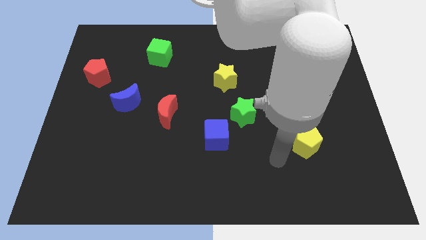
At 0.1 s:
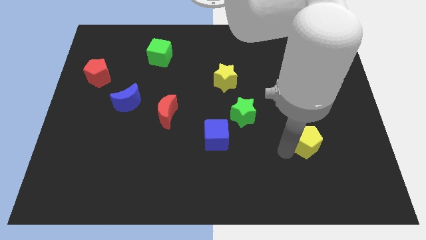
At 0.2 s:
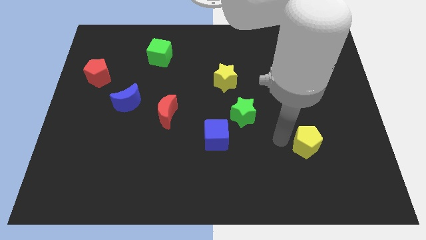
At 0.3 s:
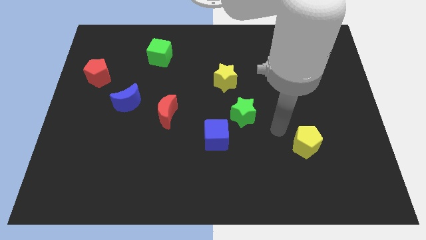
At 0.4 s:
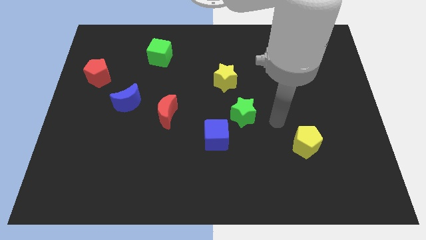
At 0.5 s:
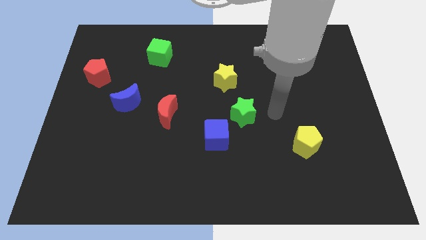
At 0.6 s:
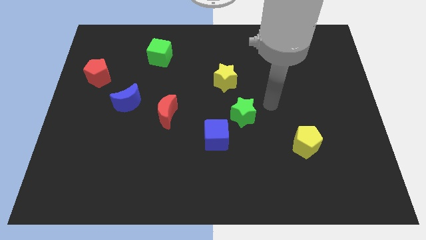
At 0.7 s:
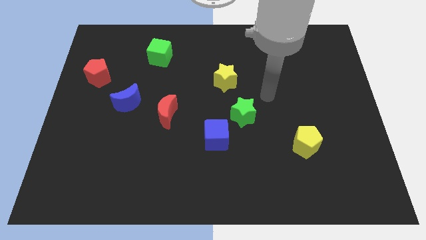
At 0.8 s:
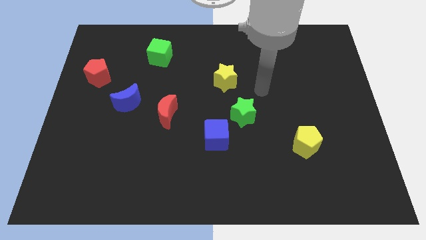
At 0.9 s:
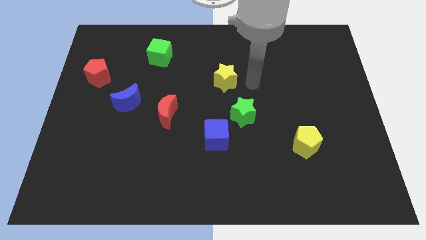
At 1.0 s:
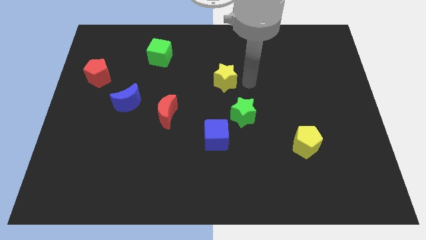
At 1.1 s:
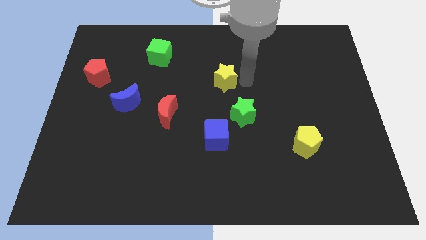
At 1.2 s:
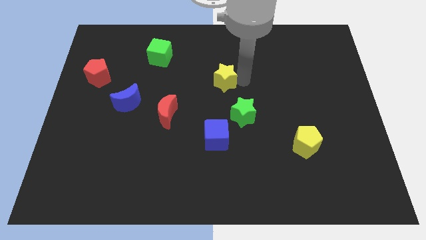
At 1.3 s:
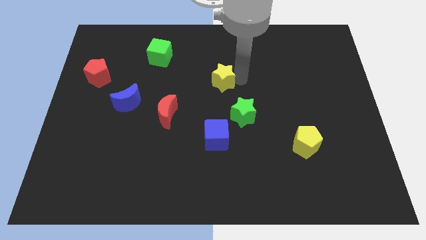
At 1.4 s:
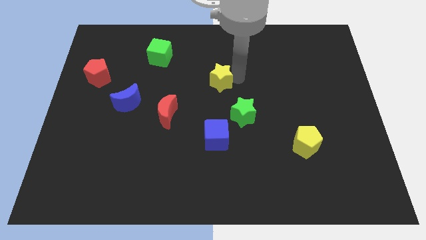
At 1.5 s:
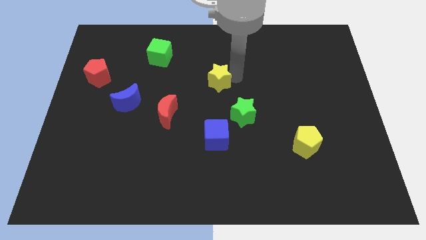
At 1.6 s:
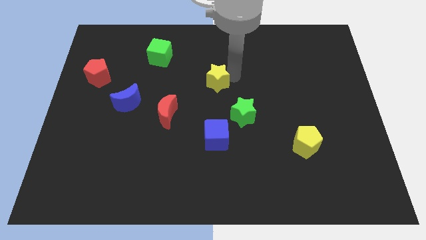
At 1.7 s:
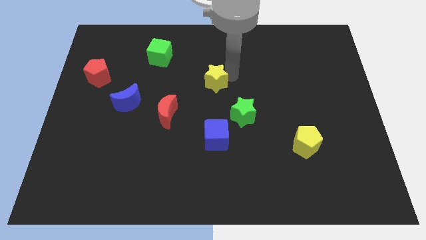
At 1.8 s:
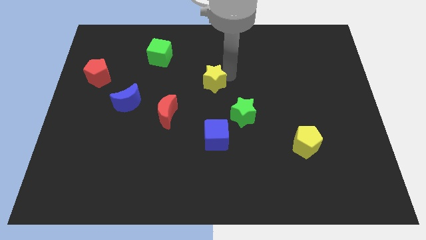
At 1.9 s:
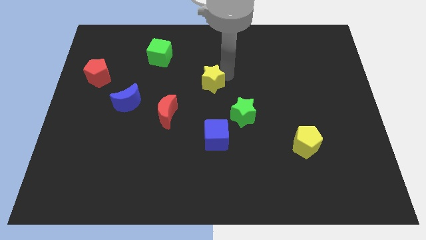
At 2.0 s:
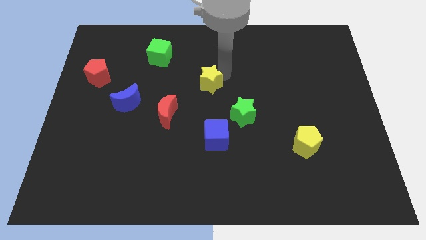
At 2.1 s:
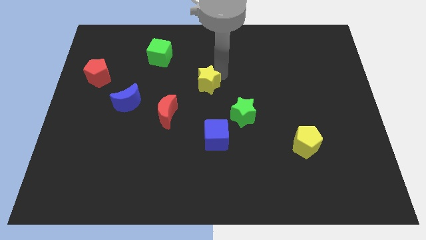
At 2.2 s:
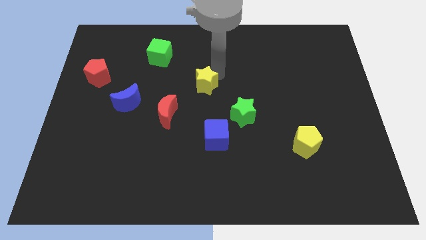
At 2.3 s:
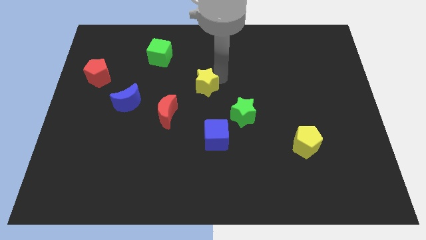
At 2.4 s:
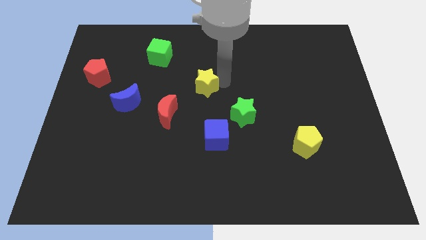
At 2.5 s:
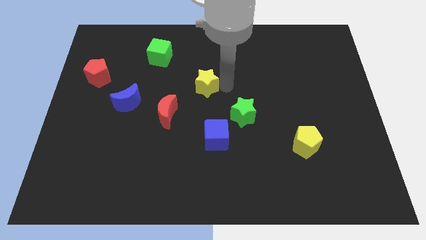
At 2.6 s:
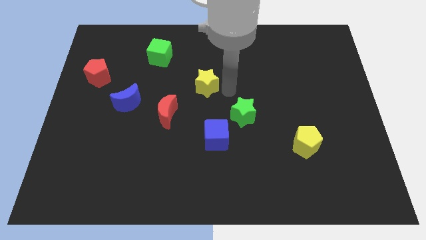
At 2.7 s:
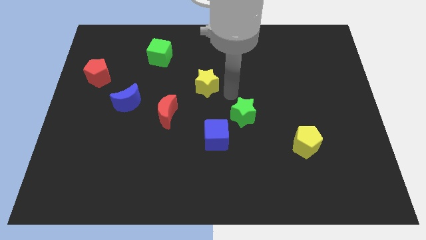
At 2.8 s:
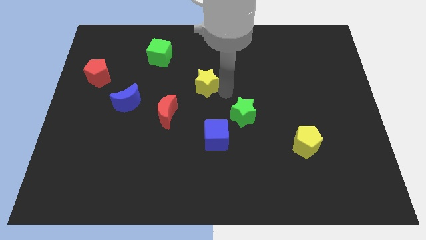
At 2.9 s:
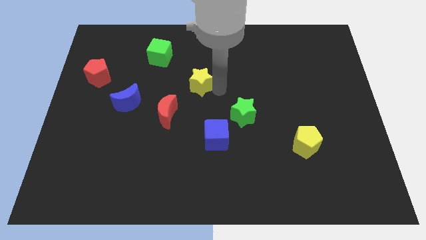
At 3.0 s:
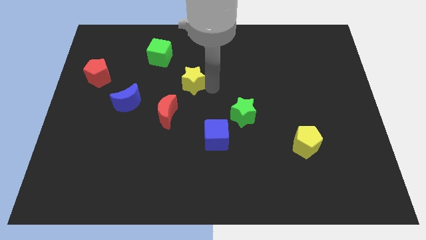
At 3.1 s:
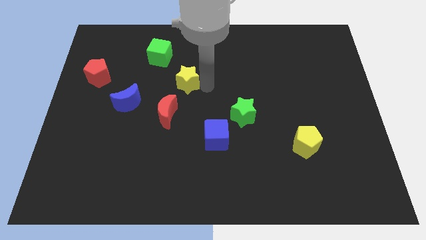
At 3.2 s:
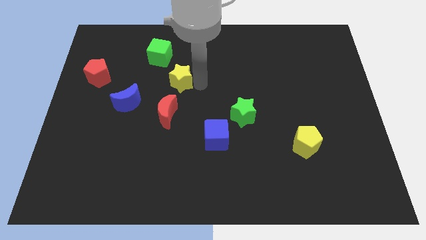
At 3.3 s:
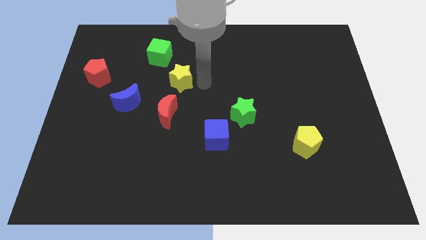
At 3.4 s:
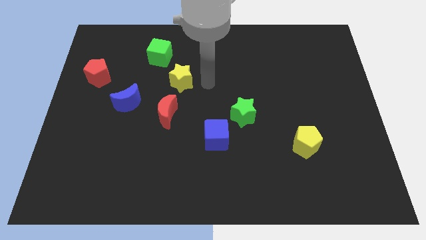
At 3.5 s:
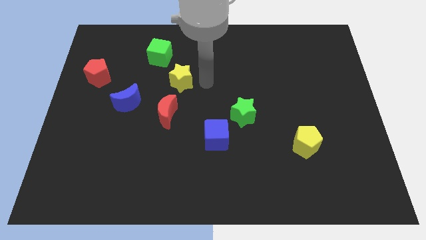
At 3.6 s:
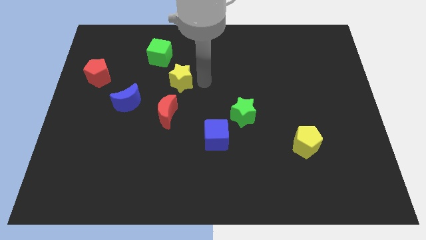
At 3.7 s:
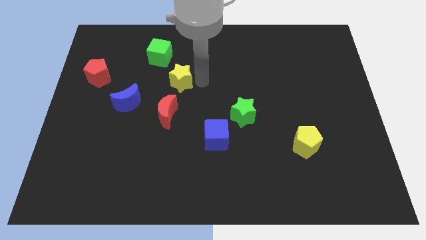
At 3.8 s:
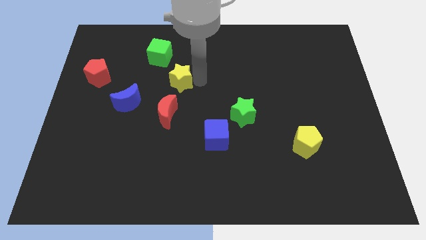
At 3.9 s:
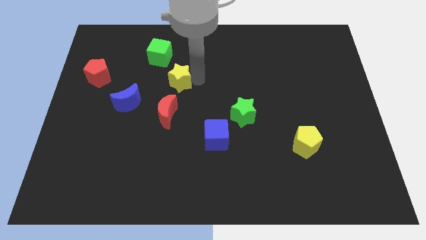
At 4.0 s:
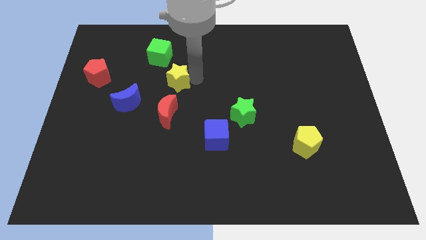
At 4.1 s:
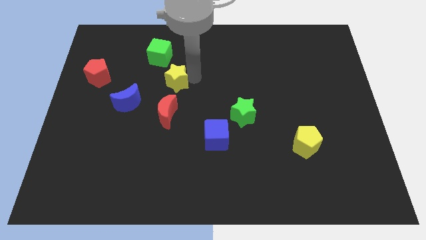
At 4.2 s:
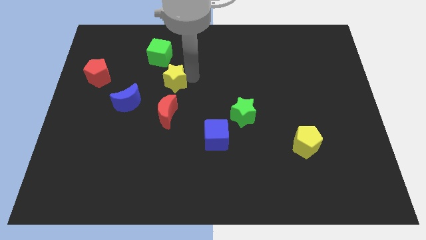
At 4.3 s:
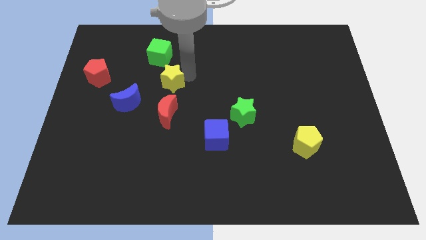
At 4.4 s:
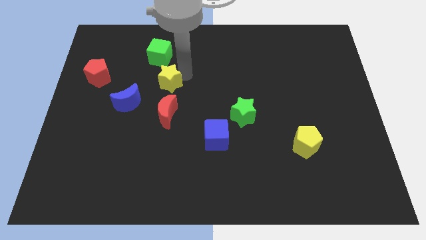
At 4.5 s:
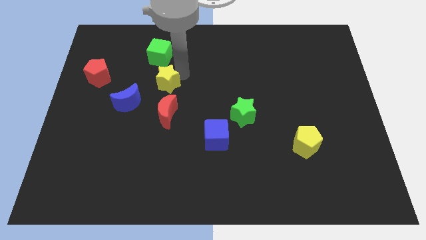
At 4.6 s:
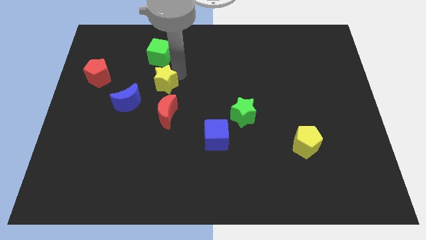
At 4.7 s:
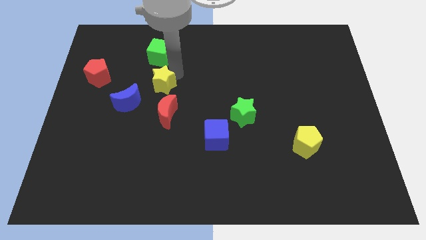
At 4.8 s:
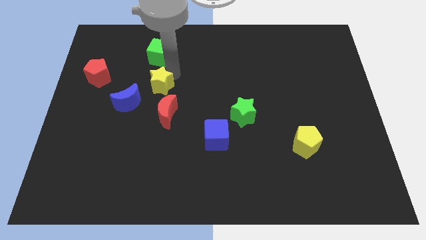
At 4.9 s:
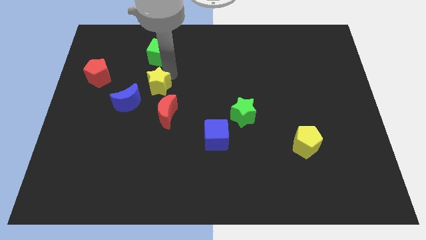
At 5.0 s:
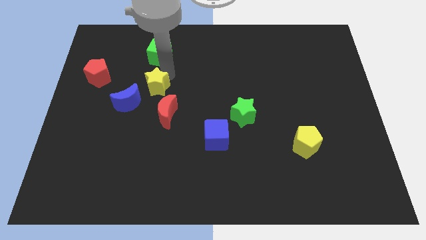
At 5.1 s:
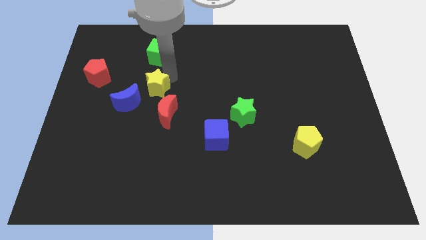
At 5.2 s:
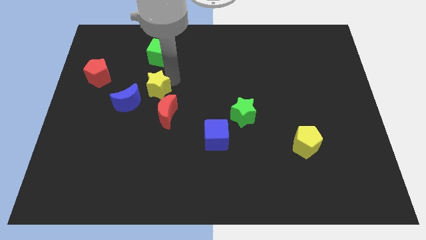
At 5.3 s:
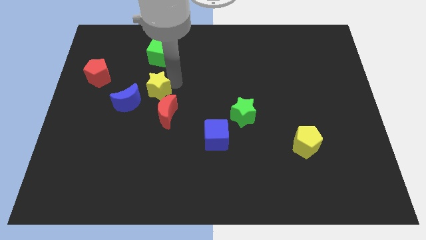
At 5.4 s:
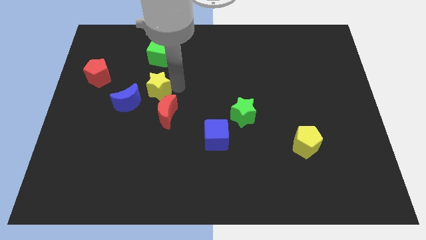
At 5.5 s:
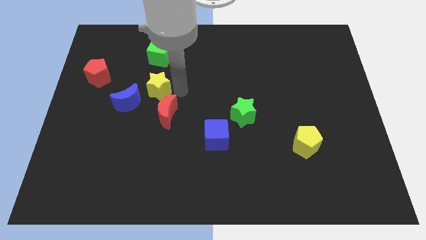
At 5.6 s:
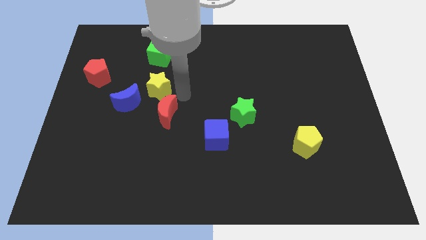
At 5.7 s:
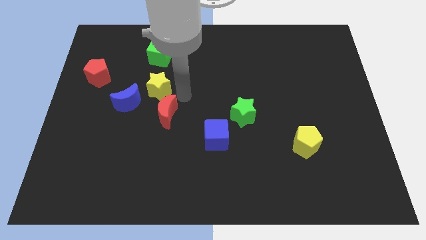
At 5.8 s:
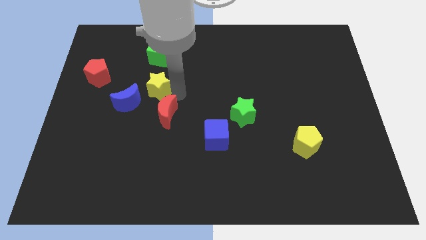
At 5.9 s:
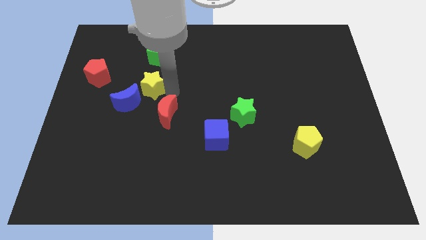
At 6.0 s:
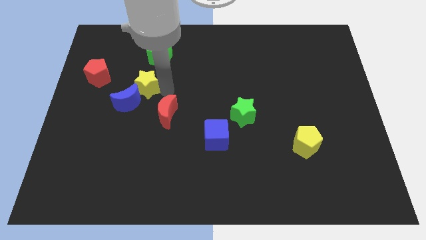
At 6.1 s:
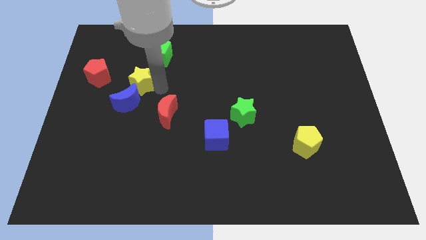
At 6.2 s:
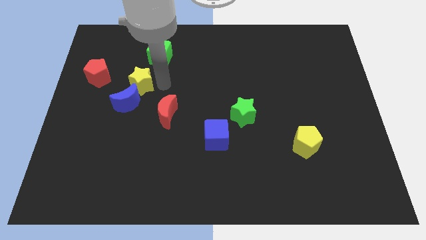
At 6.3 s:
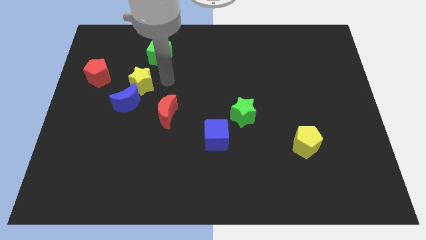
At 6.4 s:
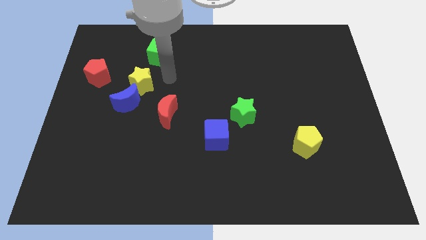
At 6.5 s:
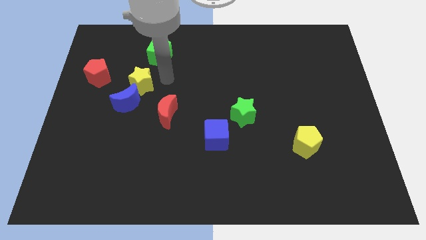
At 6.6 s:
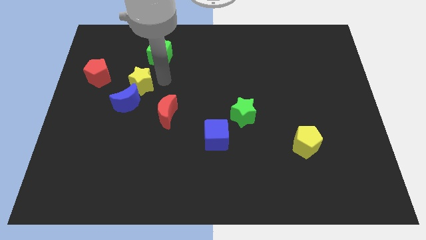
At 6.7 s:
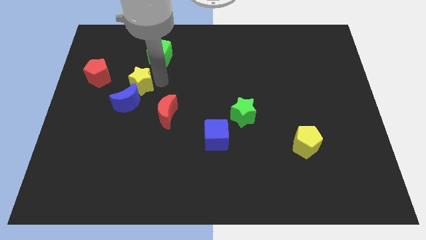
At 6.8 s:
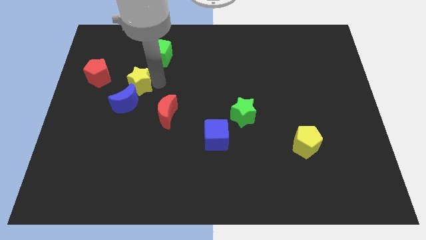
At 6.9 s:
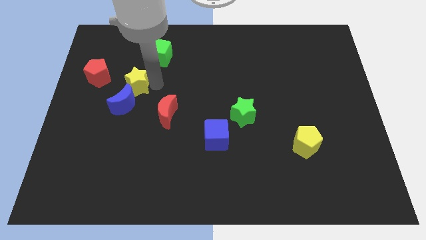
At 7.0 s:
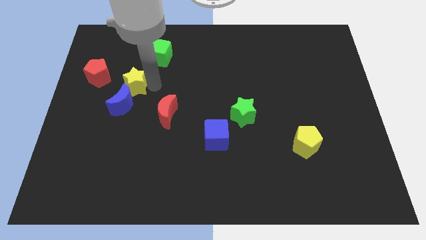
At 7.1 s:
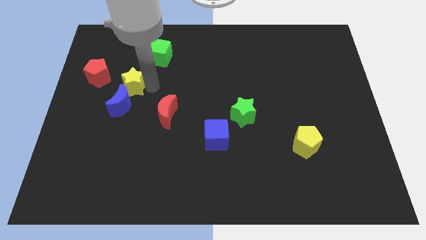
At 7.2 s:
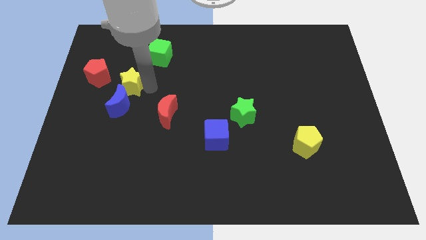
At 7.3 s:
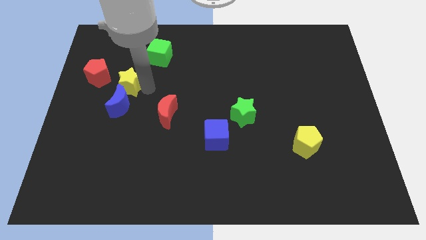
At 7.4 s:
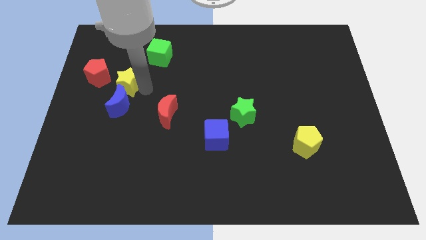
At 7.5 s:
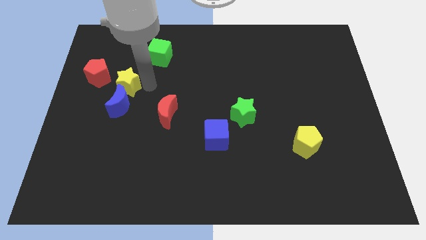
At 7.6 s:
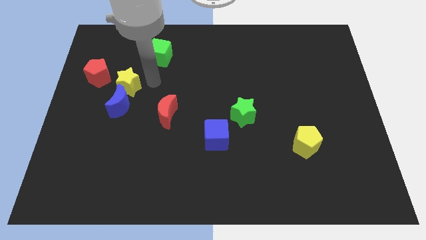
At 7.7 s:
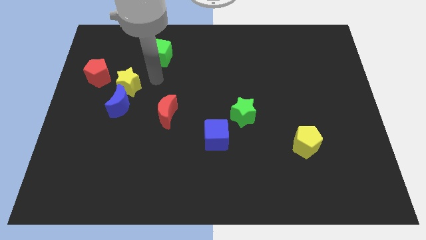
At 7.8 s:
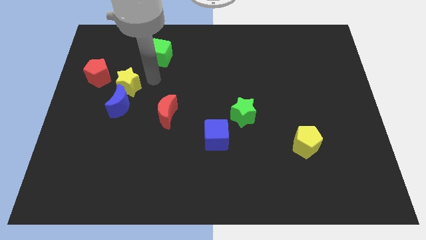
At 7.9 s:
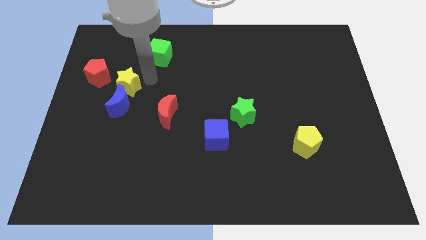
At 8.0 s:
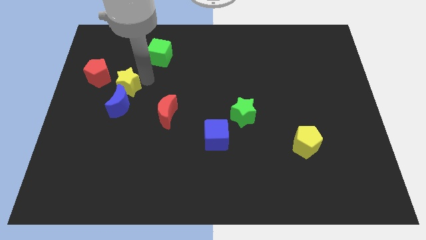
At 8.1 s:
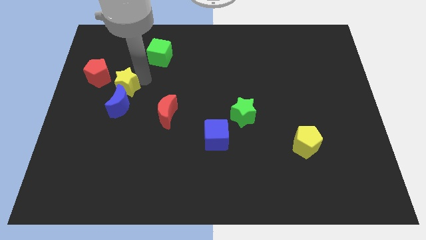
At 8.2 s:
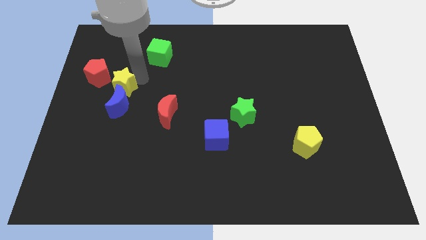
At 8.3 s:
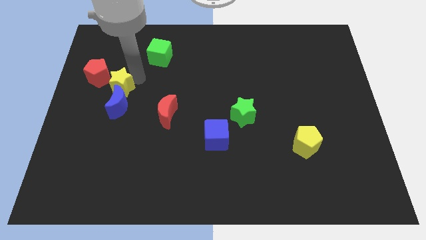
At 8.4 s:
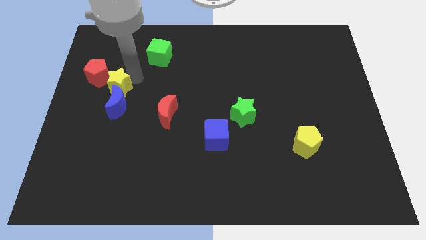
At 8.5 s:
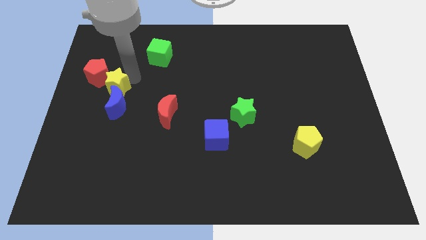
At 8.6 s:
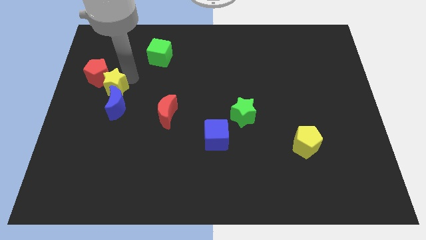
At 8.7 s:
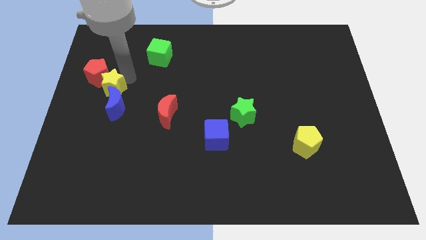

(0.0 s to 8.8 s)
put the yellow star below the red pentagon
